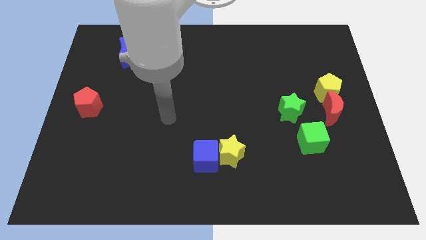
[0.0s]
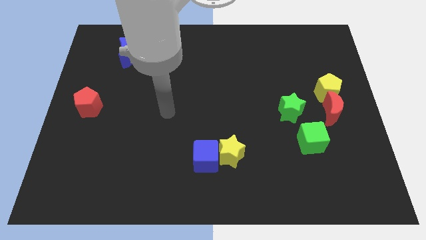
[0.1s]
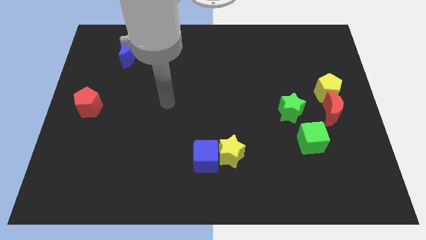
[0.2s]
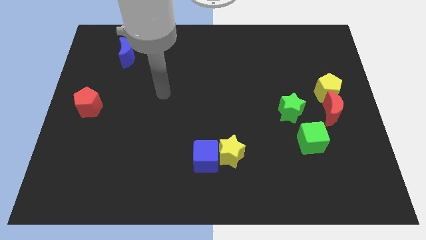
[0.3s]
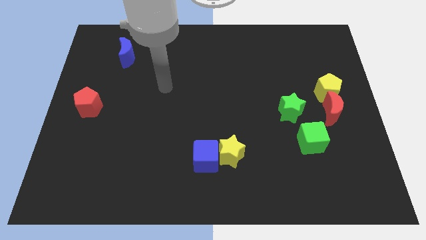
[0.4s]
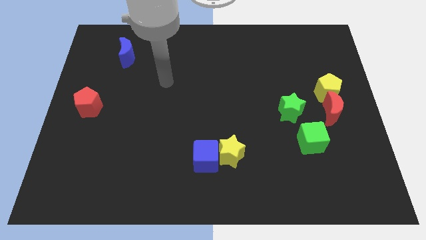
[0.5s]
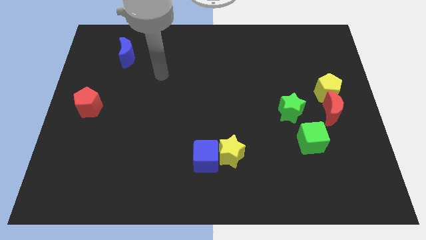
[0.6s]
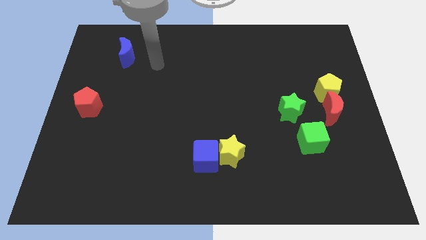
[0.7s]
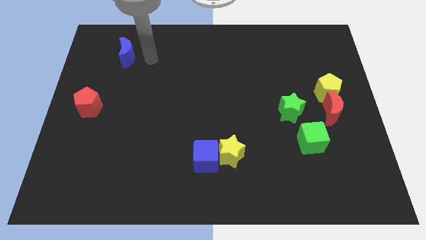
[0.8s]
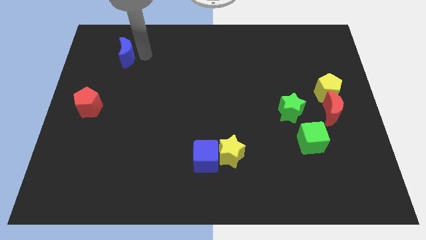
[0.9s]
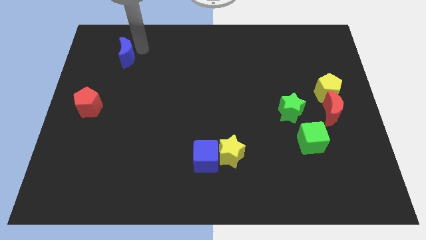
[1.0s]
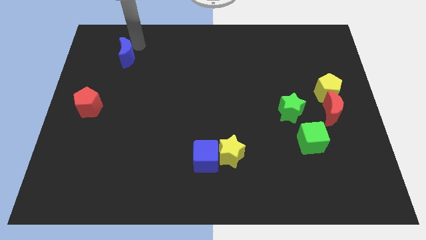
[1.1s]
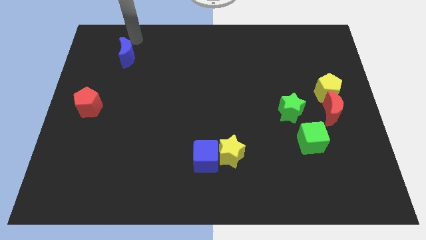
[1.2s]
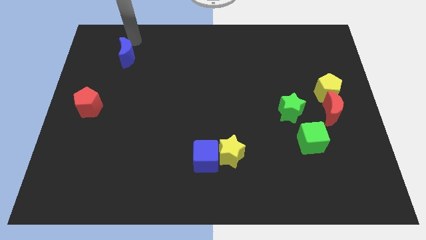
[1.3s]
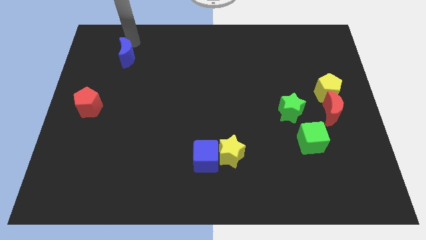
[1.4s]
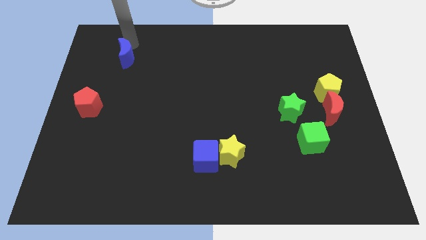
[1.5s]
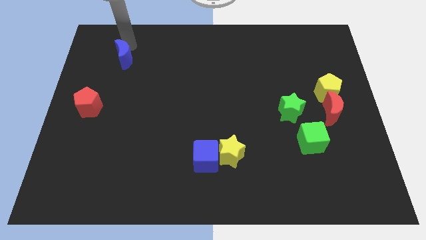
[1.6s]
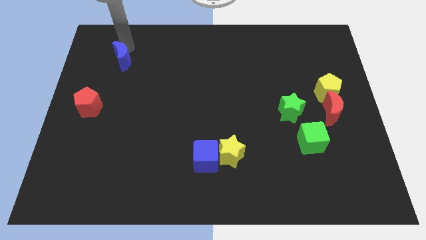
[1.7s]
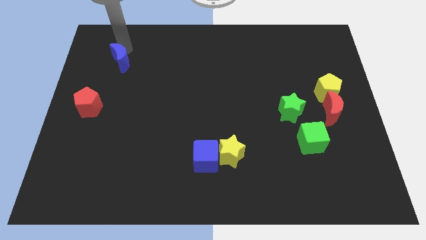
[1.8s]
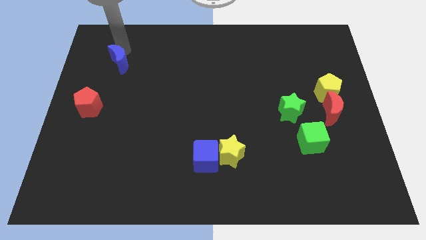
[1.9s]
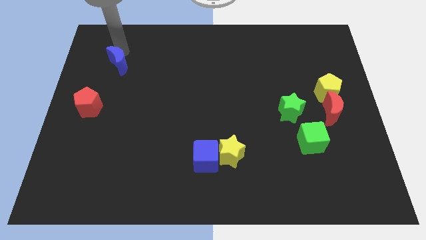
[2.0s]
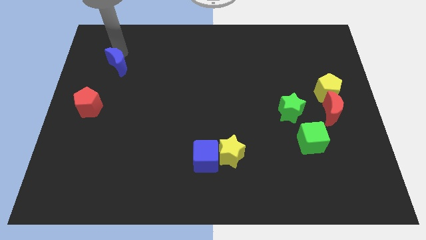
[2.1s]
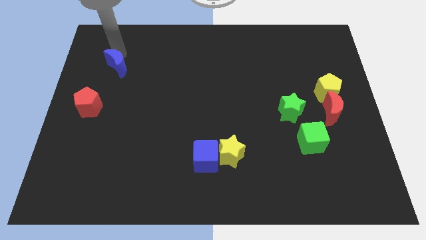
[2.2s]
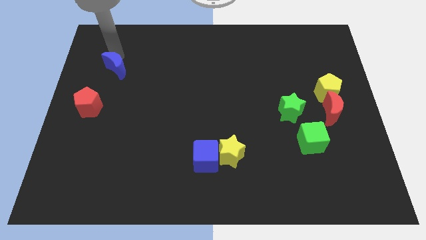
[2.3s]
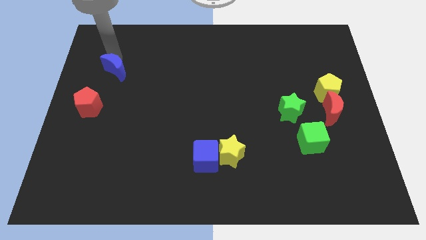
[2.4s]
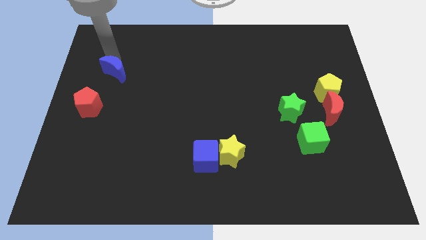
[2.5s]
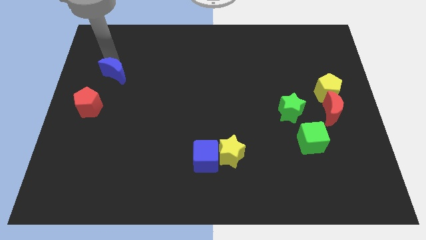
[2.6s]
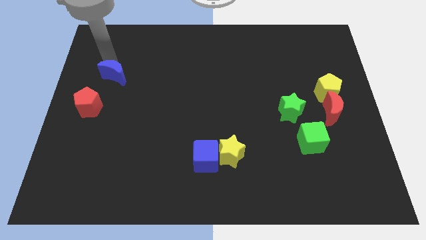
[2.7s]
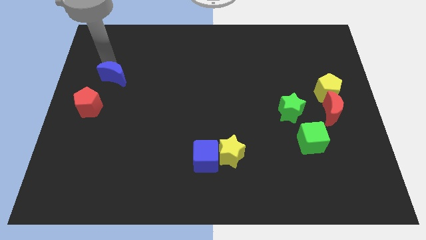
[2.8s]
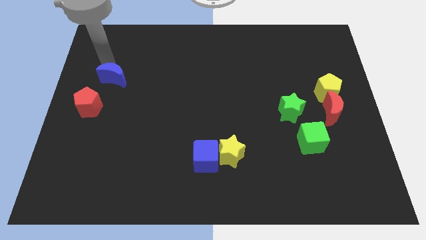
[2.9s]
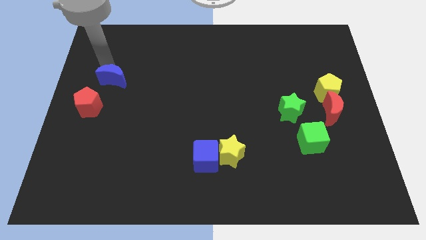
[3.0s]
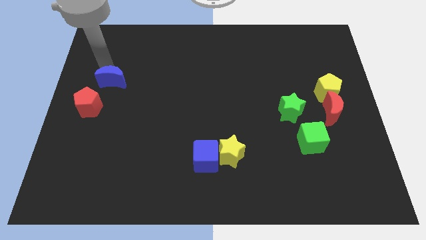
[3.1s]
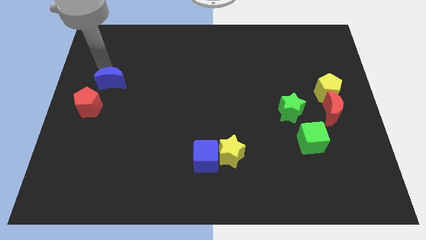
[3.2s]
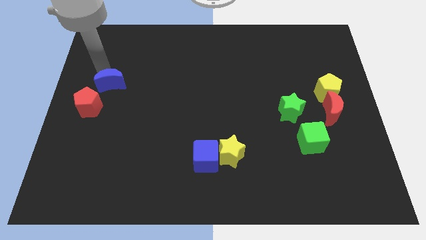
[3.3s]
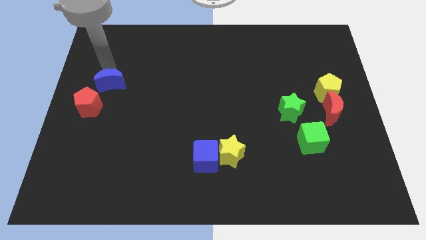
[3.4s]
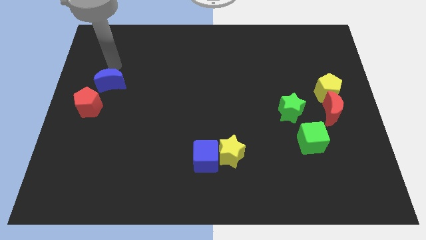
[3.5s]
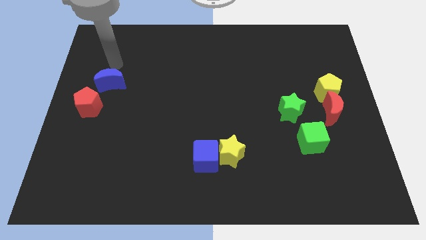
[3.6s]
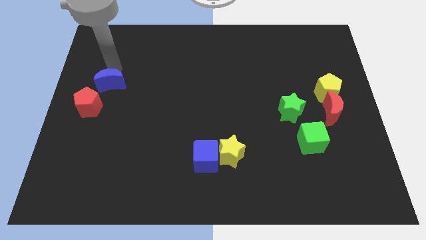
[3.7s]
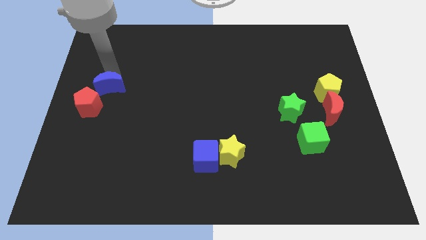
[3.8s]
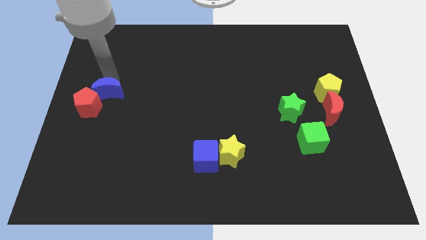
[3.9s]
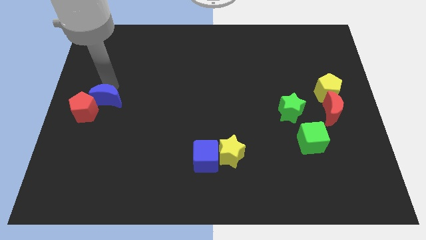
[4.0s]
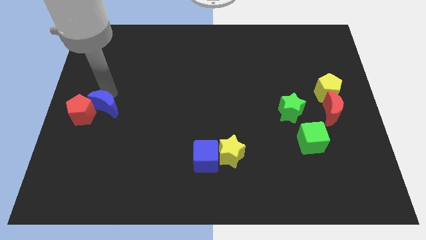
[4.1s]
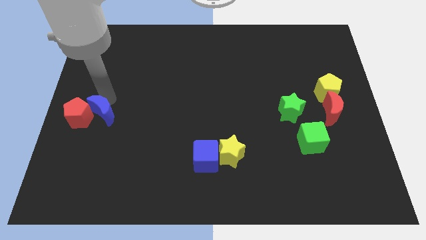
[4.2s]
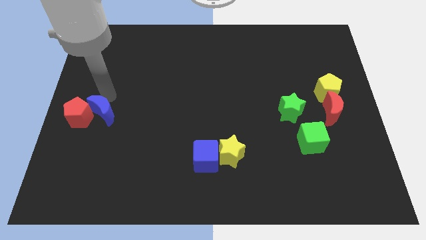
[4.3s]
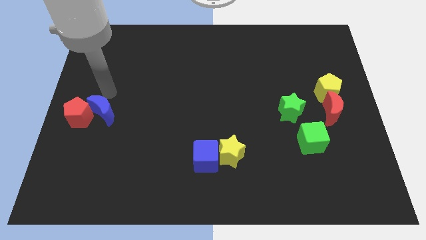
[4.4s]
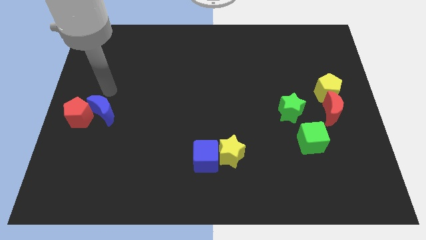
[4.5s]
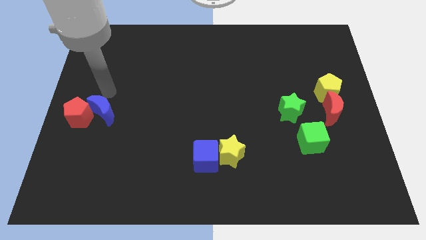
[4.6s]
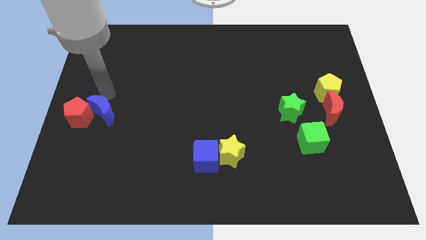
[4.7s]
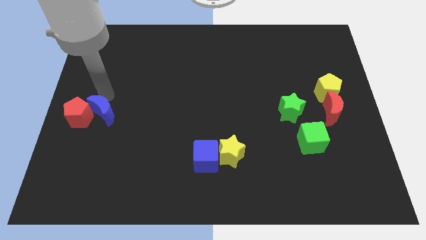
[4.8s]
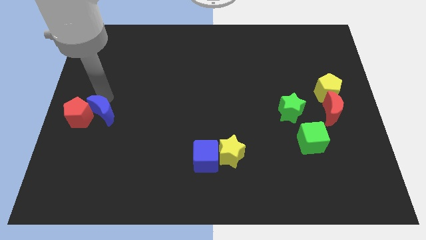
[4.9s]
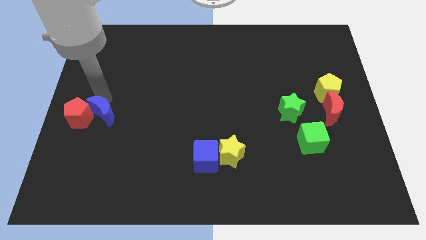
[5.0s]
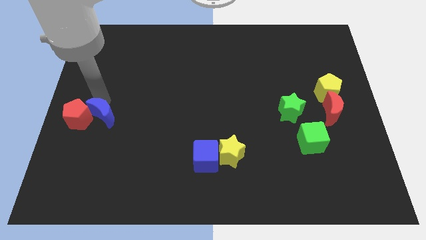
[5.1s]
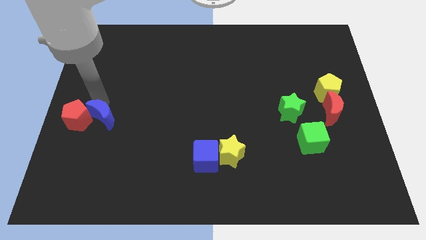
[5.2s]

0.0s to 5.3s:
push the blue moon down

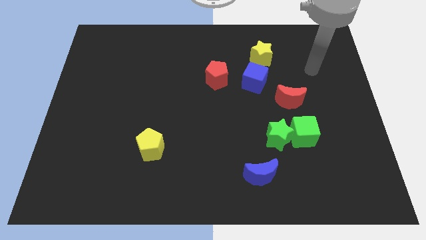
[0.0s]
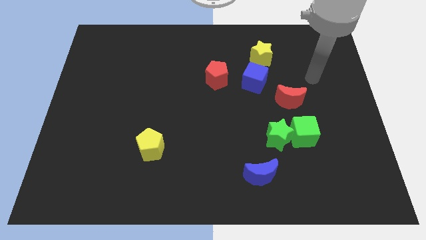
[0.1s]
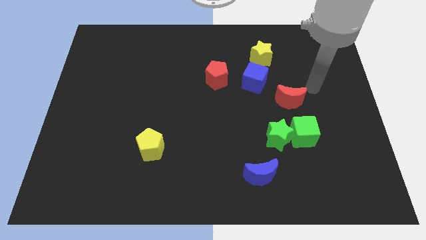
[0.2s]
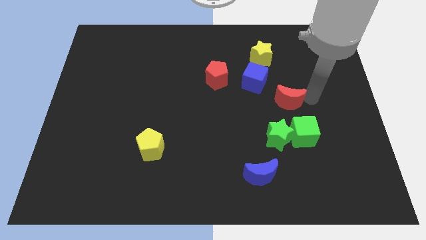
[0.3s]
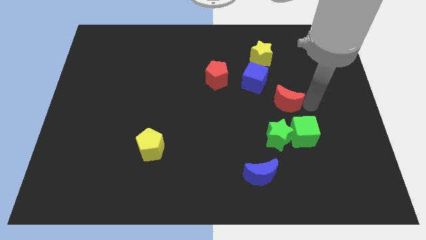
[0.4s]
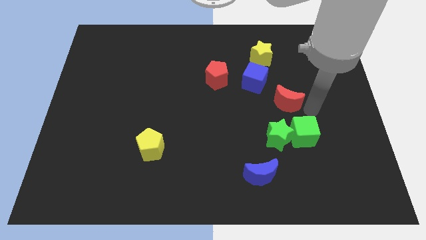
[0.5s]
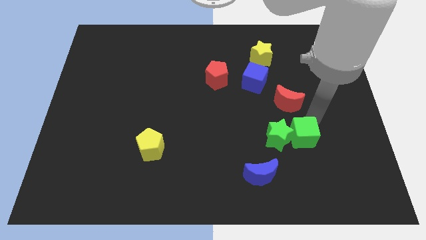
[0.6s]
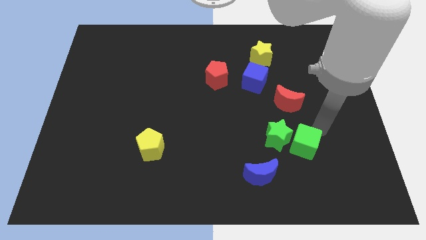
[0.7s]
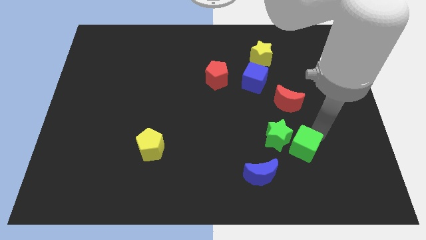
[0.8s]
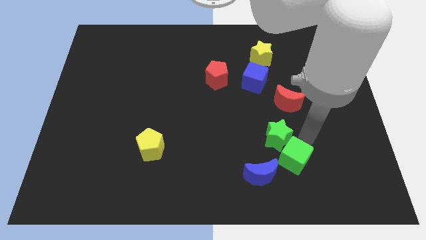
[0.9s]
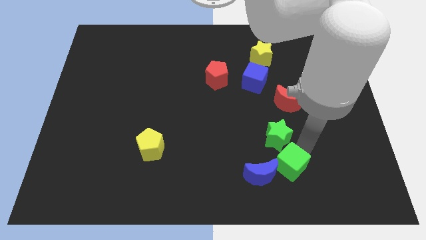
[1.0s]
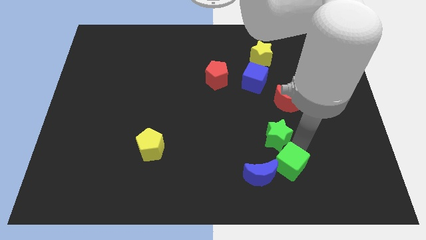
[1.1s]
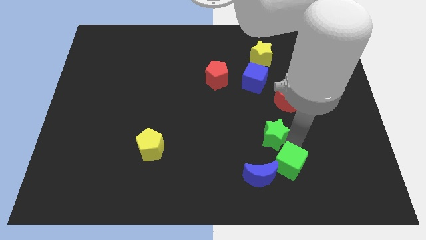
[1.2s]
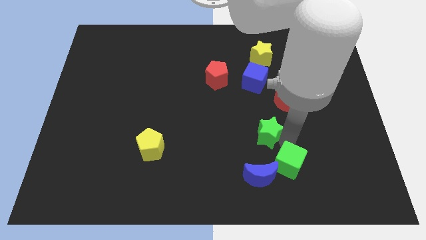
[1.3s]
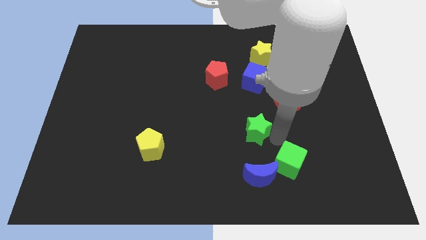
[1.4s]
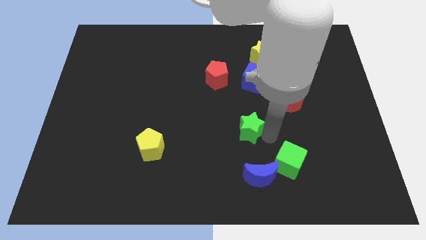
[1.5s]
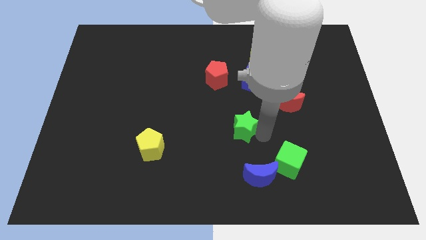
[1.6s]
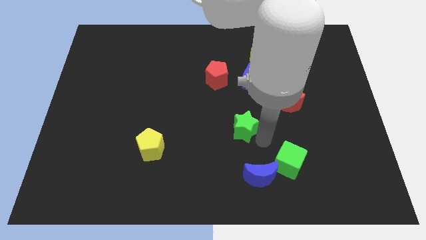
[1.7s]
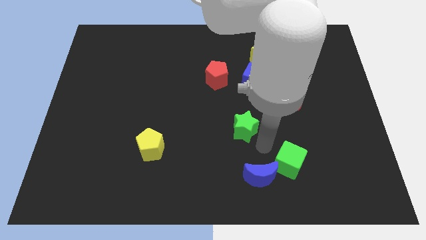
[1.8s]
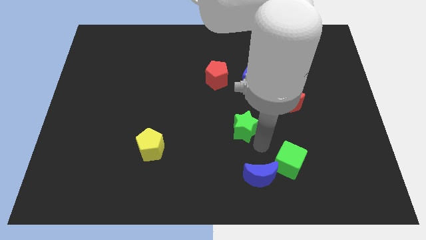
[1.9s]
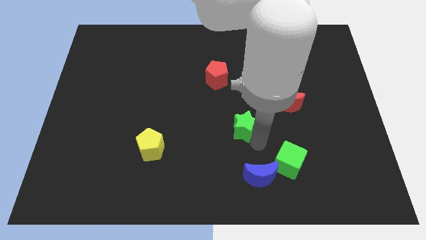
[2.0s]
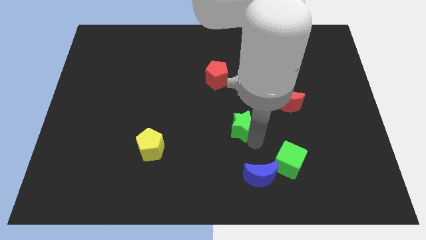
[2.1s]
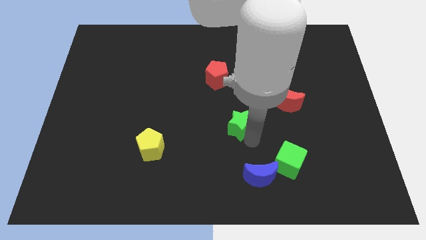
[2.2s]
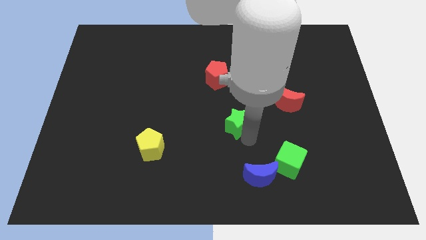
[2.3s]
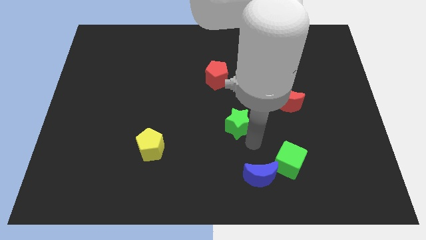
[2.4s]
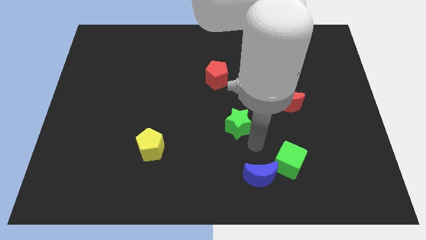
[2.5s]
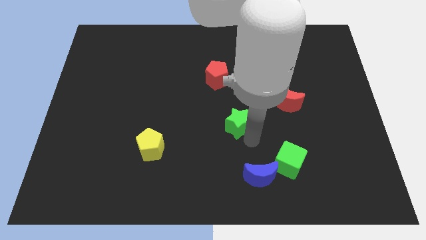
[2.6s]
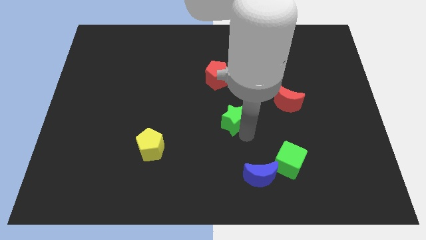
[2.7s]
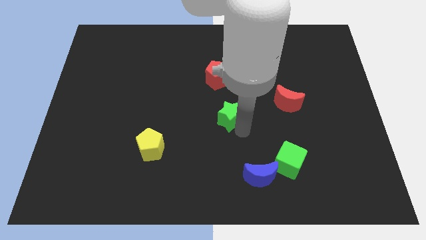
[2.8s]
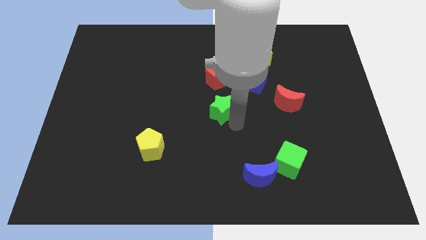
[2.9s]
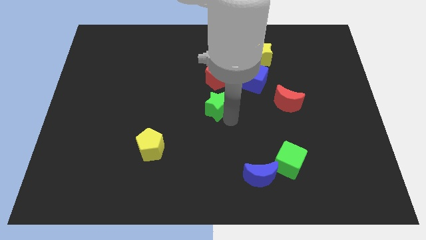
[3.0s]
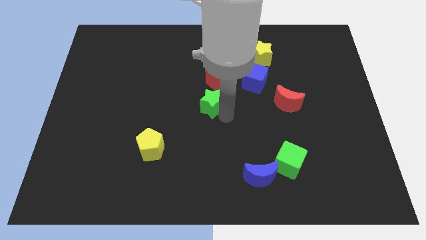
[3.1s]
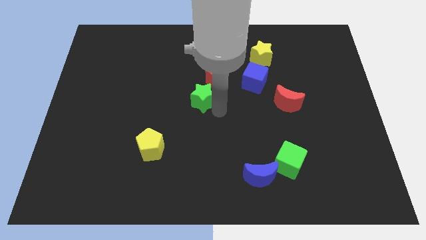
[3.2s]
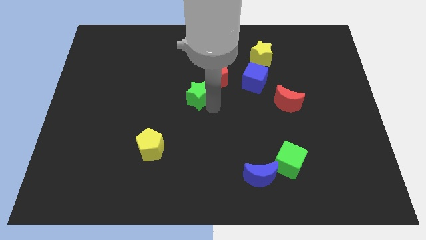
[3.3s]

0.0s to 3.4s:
move the green star diagonally upwards and left
